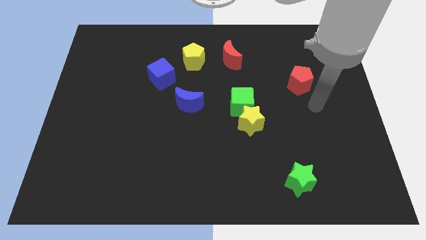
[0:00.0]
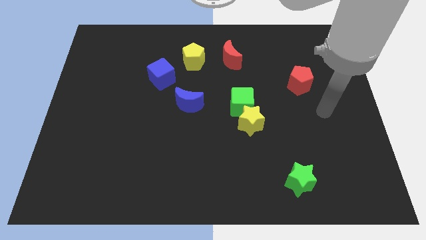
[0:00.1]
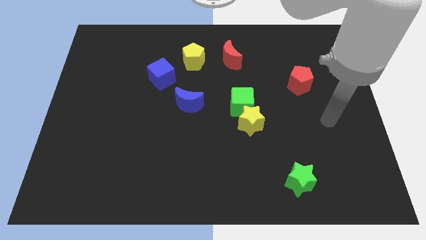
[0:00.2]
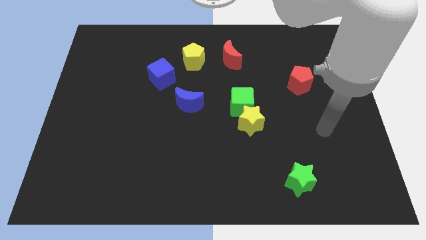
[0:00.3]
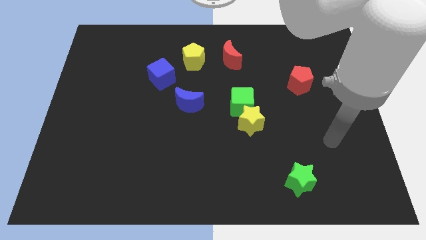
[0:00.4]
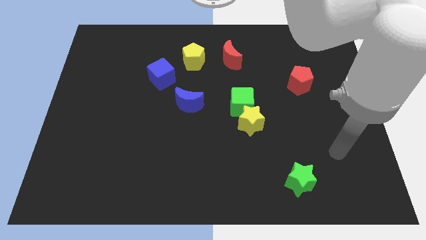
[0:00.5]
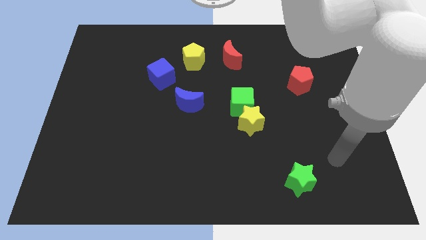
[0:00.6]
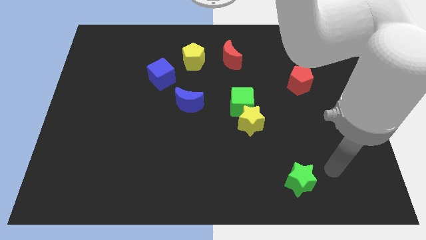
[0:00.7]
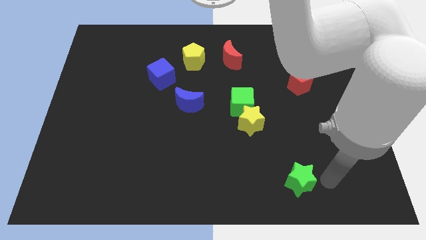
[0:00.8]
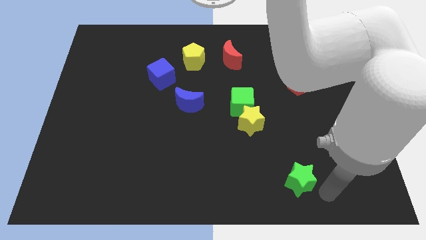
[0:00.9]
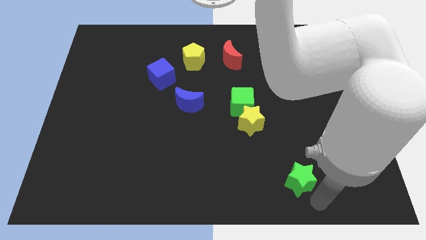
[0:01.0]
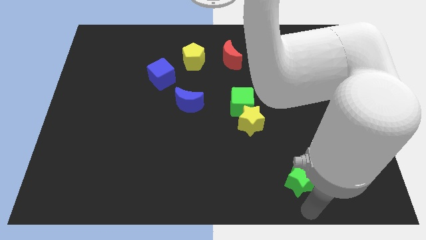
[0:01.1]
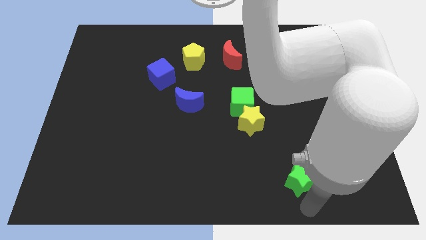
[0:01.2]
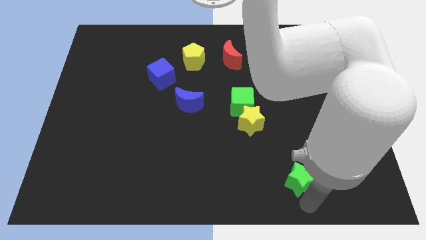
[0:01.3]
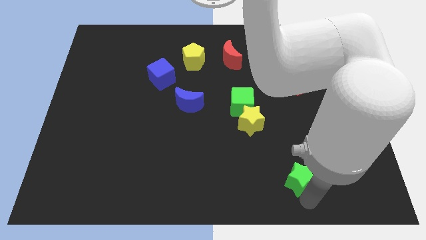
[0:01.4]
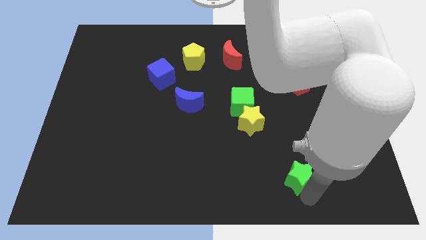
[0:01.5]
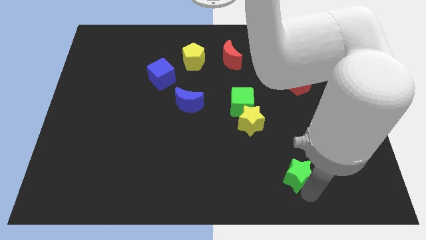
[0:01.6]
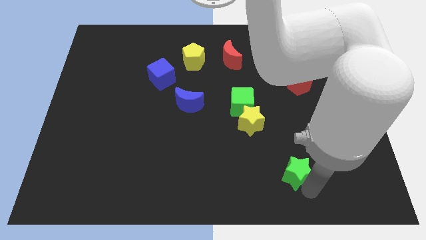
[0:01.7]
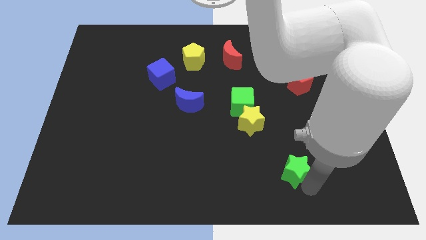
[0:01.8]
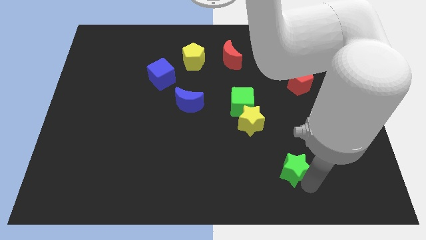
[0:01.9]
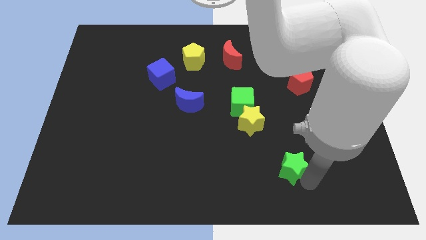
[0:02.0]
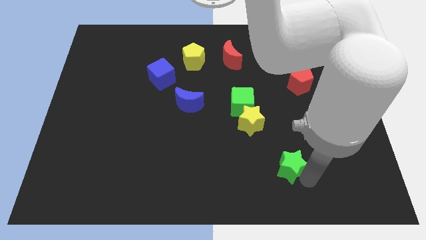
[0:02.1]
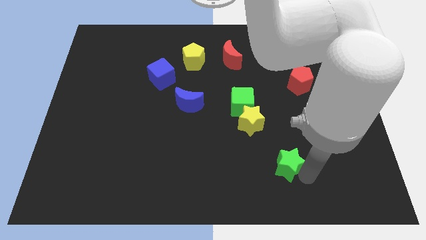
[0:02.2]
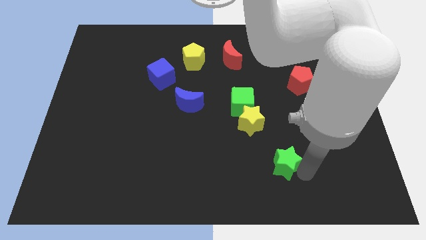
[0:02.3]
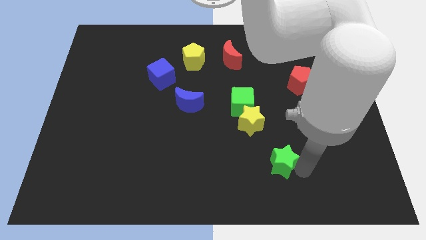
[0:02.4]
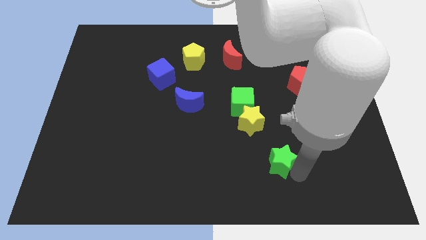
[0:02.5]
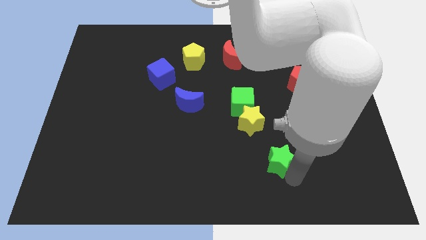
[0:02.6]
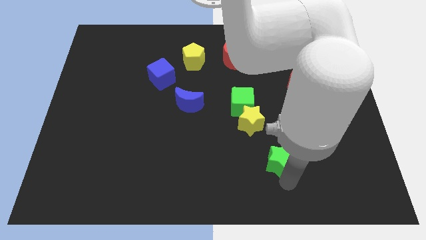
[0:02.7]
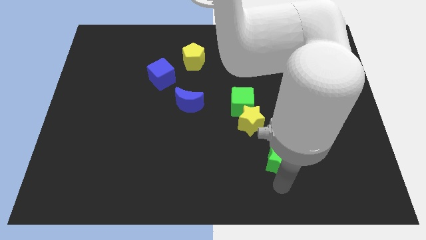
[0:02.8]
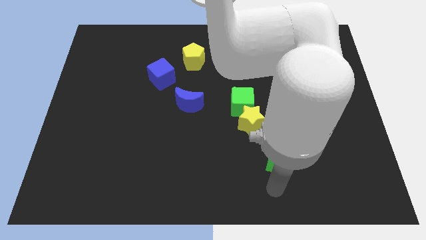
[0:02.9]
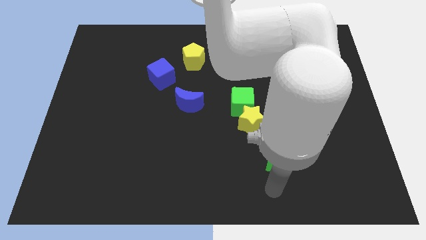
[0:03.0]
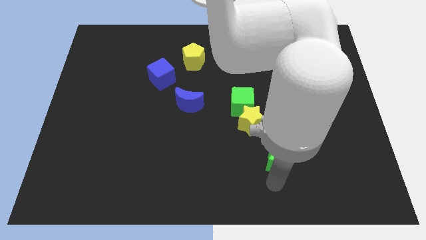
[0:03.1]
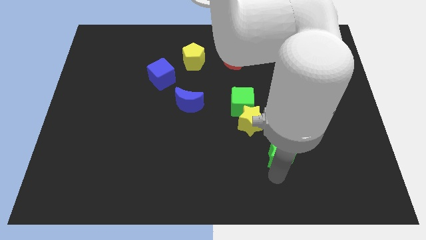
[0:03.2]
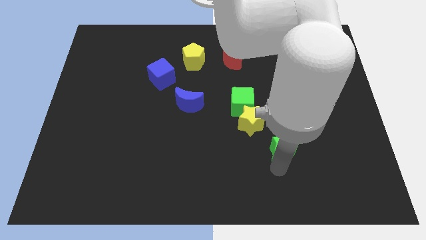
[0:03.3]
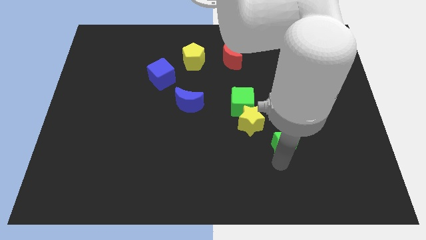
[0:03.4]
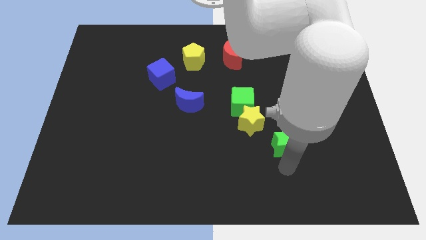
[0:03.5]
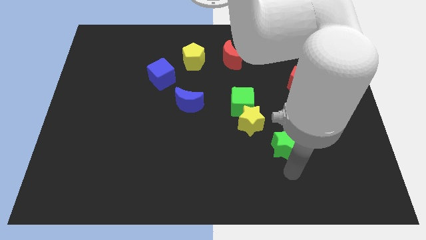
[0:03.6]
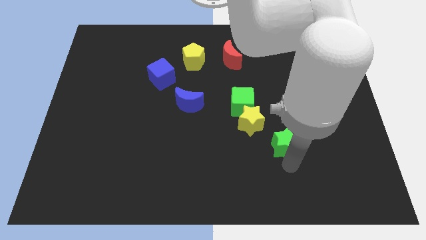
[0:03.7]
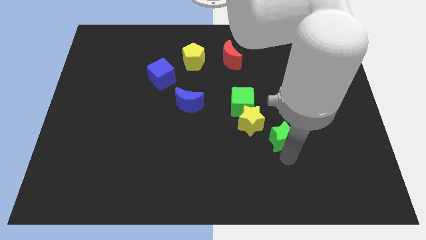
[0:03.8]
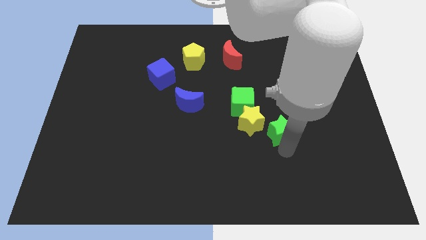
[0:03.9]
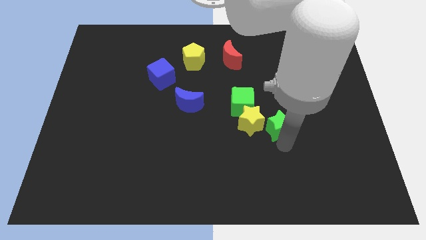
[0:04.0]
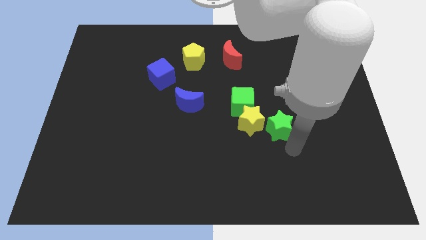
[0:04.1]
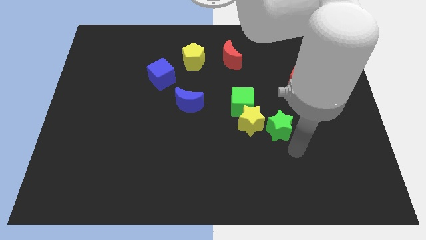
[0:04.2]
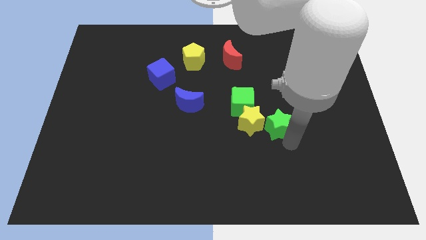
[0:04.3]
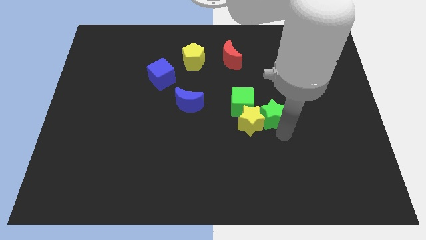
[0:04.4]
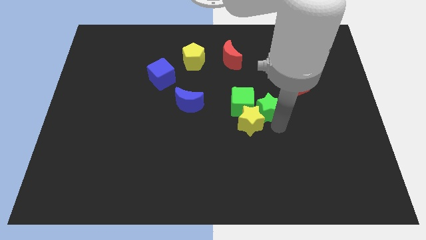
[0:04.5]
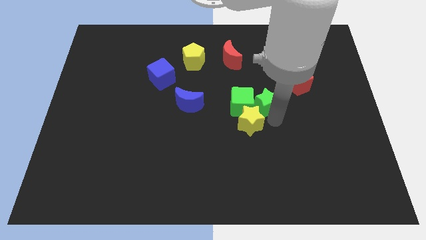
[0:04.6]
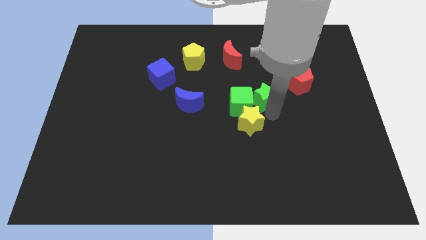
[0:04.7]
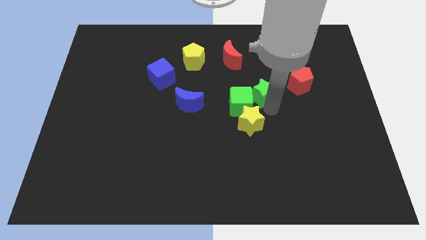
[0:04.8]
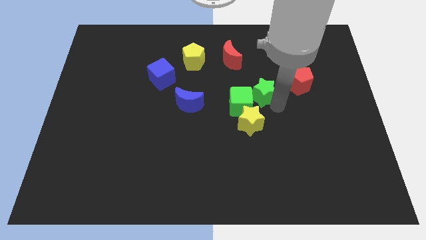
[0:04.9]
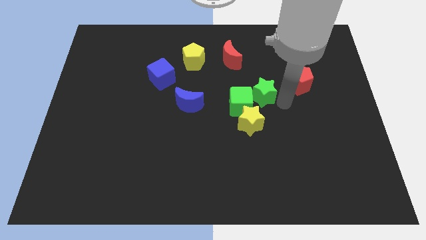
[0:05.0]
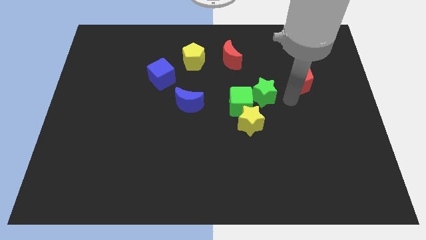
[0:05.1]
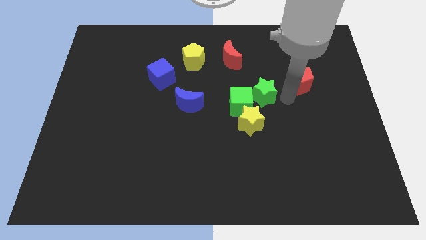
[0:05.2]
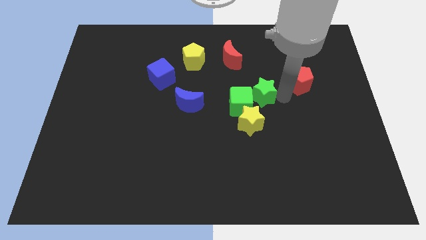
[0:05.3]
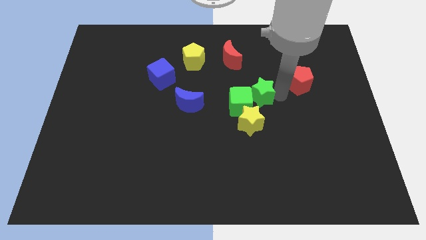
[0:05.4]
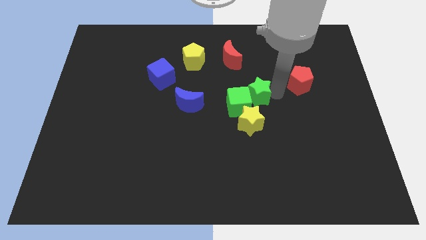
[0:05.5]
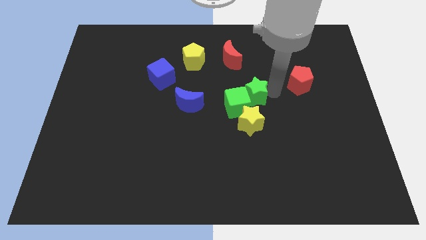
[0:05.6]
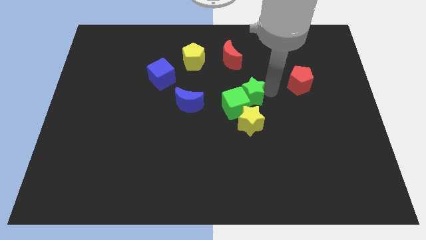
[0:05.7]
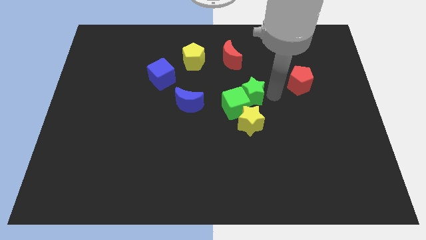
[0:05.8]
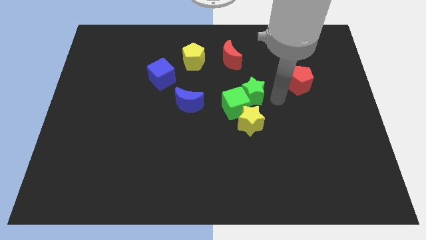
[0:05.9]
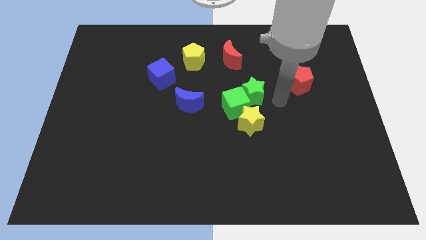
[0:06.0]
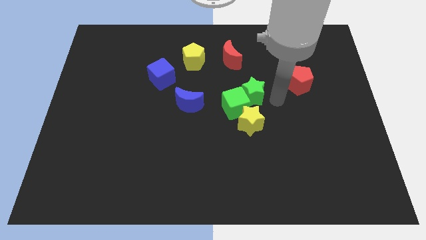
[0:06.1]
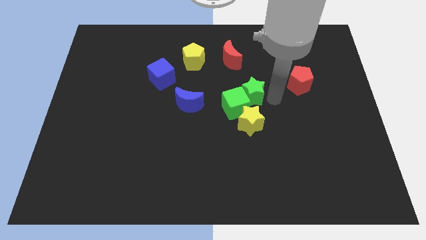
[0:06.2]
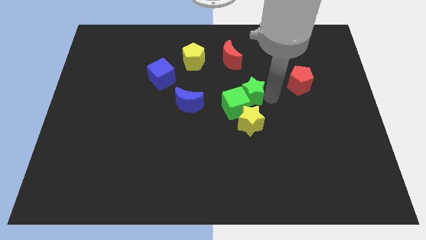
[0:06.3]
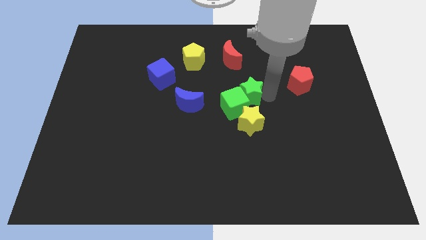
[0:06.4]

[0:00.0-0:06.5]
put the green star to the bottom of the red moon

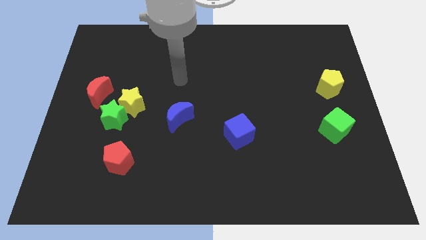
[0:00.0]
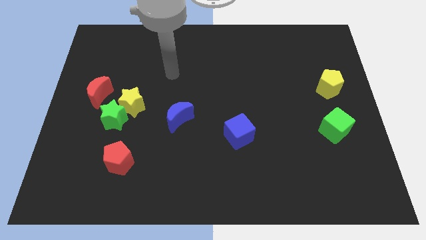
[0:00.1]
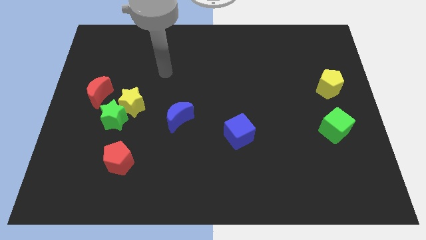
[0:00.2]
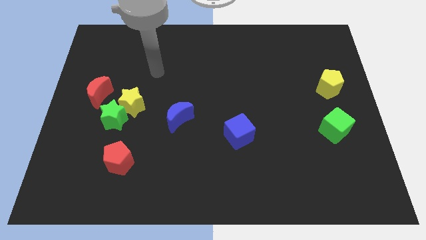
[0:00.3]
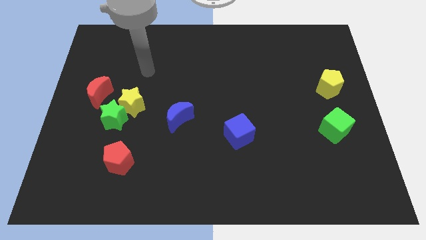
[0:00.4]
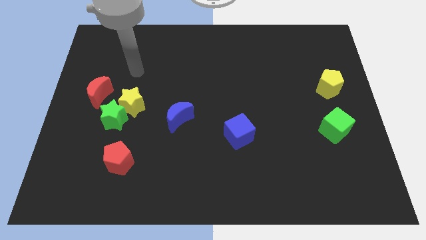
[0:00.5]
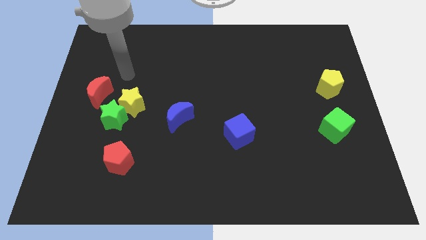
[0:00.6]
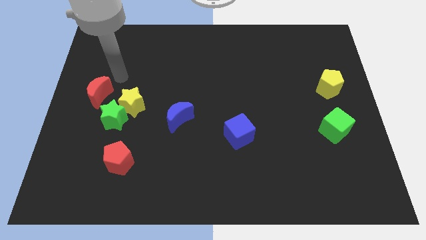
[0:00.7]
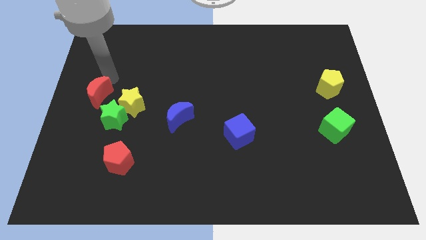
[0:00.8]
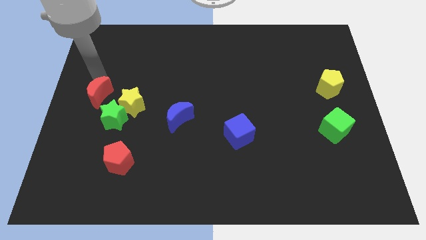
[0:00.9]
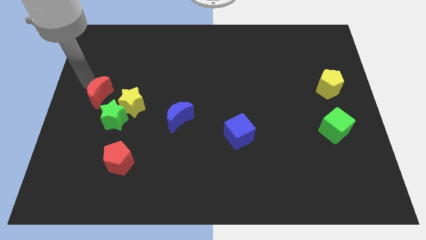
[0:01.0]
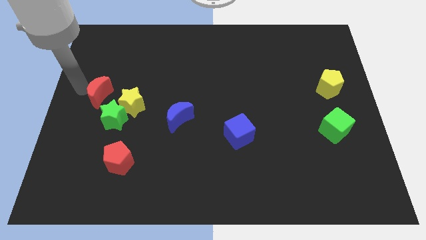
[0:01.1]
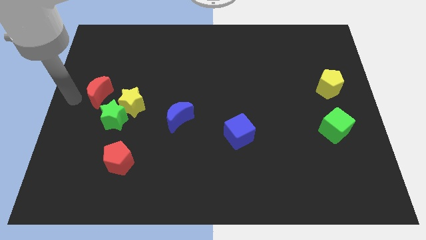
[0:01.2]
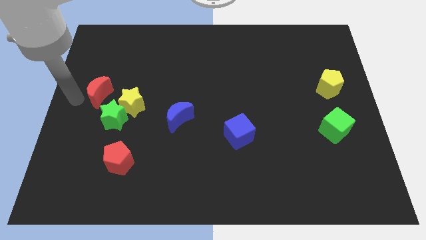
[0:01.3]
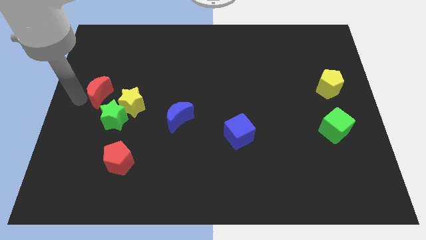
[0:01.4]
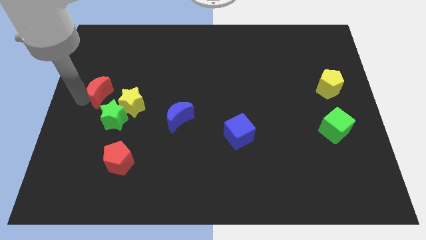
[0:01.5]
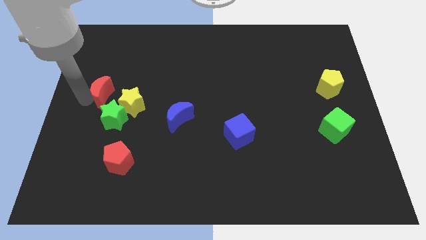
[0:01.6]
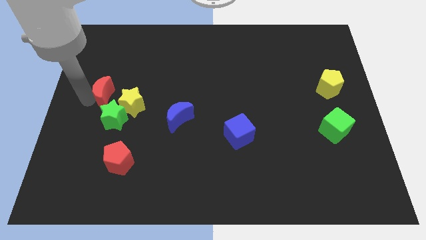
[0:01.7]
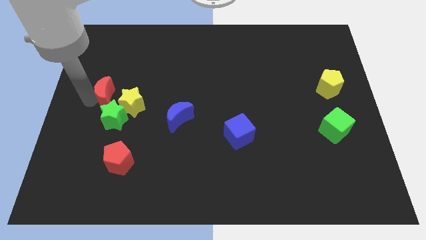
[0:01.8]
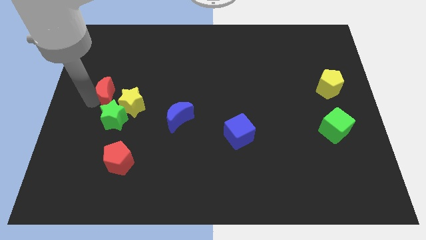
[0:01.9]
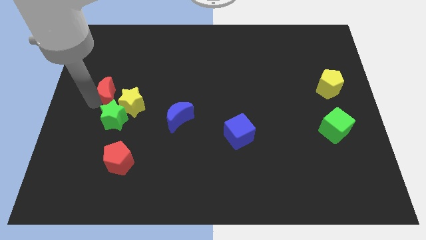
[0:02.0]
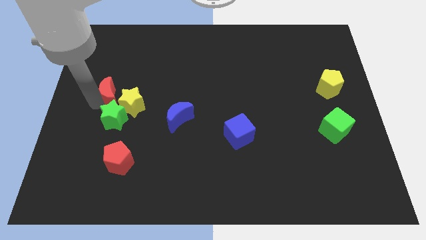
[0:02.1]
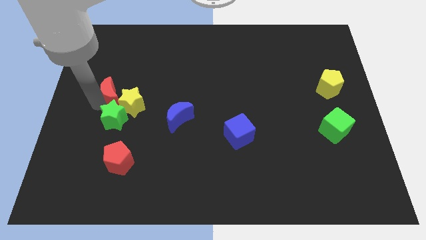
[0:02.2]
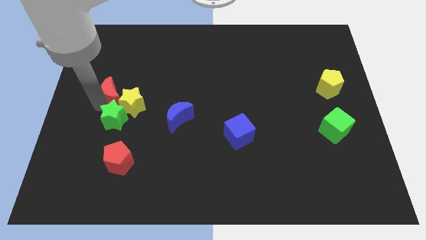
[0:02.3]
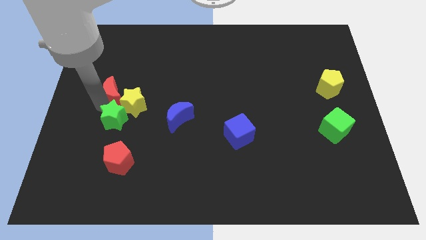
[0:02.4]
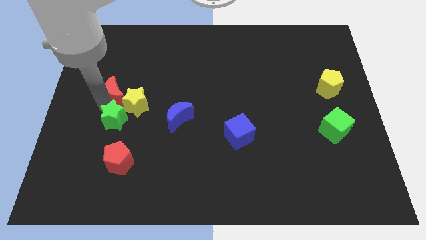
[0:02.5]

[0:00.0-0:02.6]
slide the red moon to the top right side of the green star
